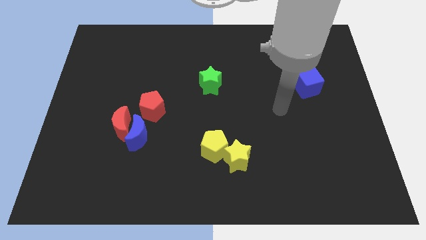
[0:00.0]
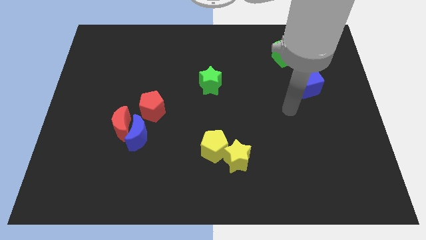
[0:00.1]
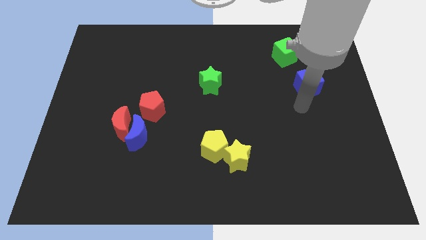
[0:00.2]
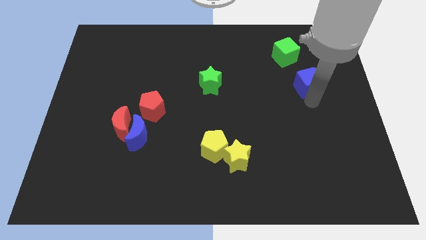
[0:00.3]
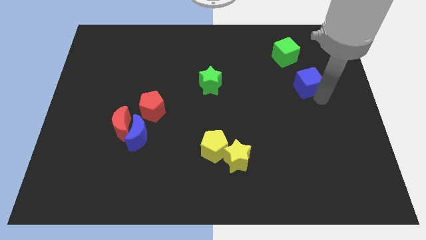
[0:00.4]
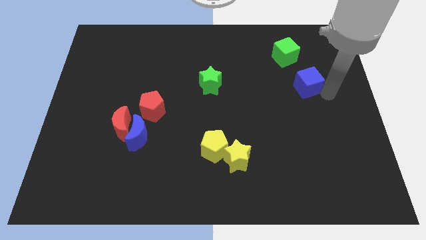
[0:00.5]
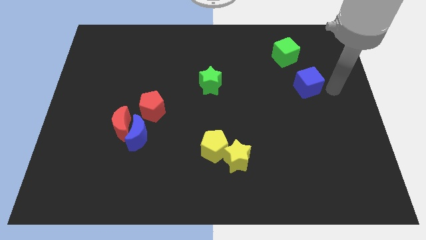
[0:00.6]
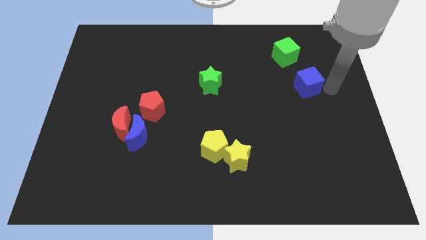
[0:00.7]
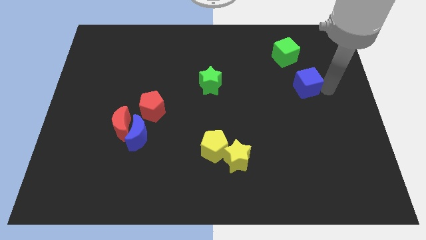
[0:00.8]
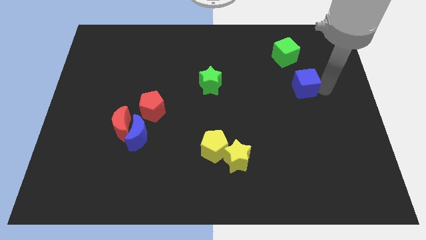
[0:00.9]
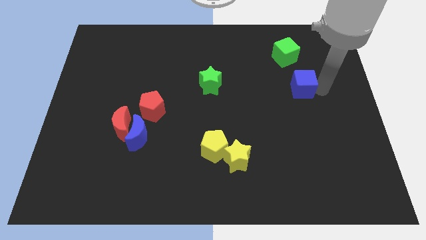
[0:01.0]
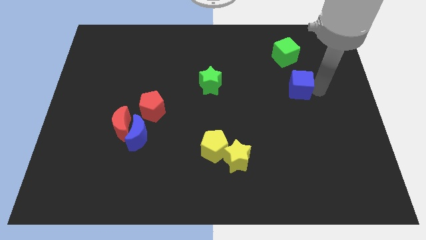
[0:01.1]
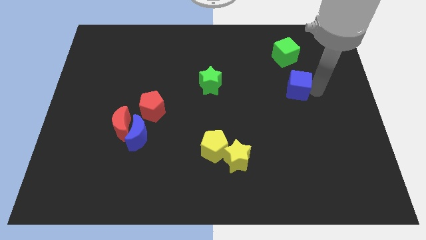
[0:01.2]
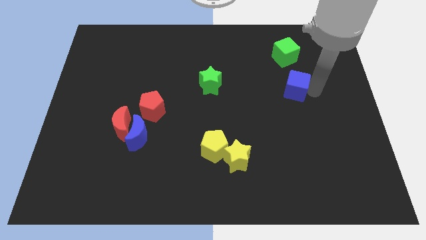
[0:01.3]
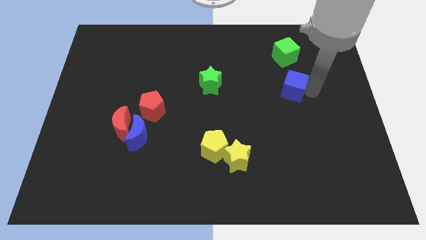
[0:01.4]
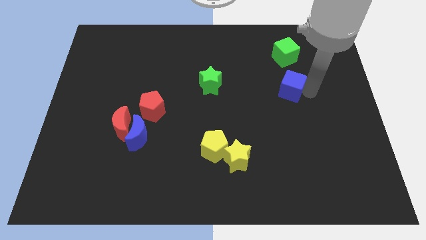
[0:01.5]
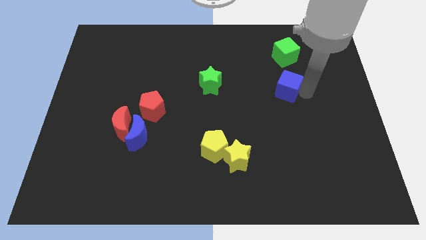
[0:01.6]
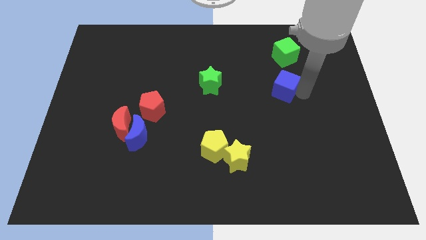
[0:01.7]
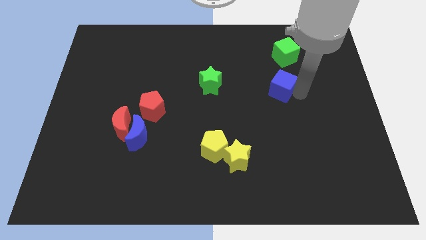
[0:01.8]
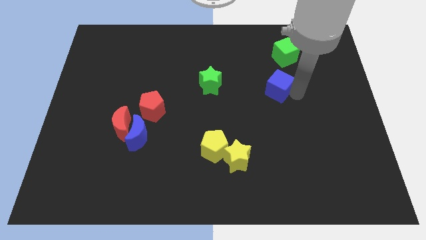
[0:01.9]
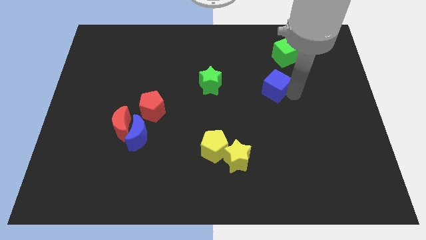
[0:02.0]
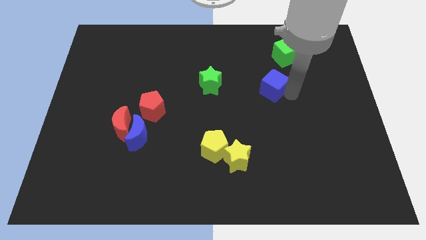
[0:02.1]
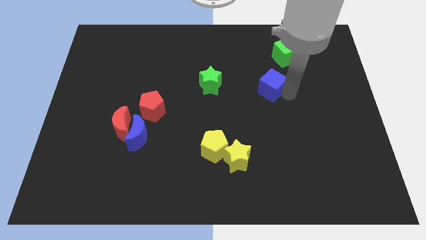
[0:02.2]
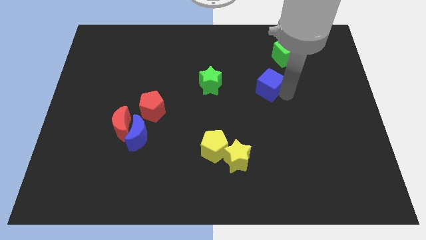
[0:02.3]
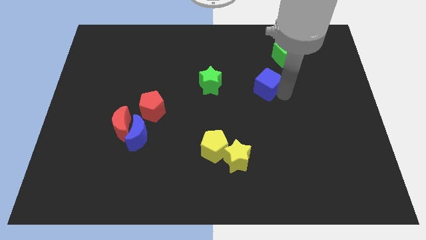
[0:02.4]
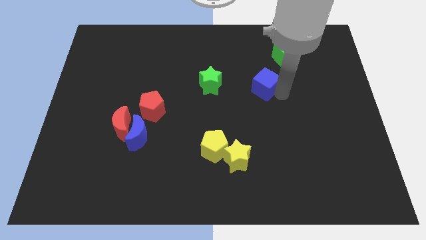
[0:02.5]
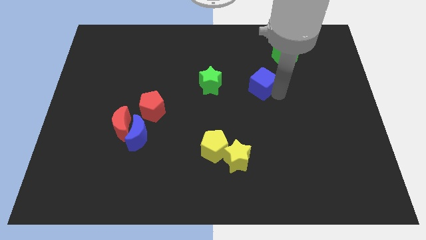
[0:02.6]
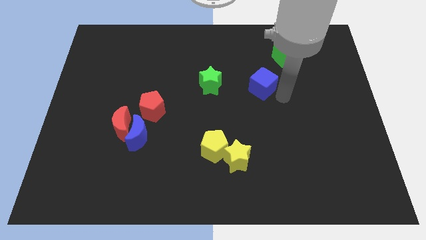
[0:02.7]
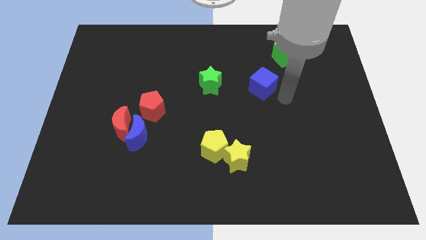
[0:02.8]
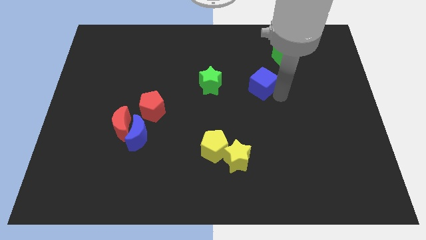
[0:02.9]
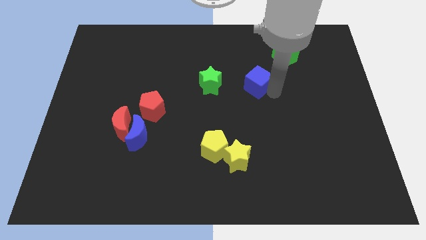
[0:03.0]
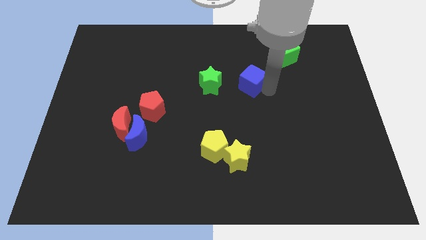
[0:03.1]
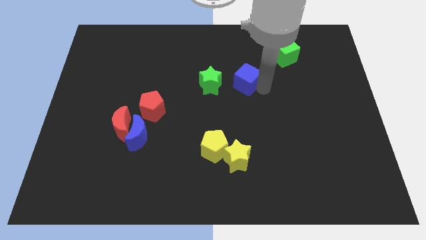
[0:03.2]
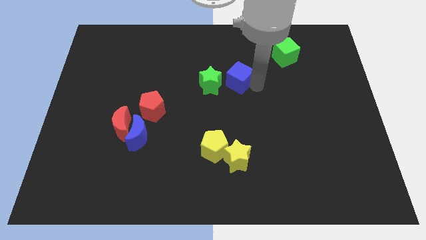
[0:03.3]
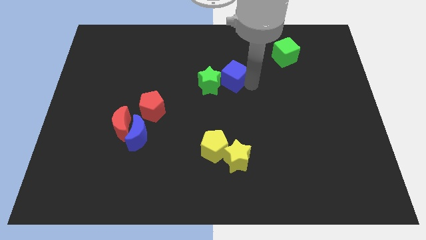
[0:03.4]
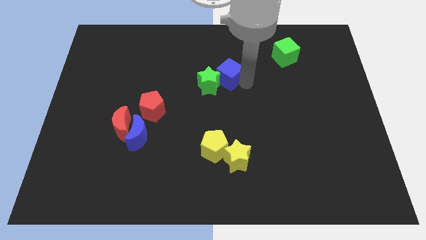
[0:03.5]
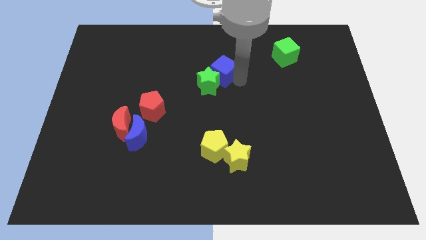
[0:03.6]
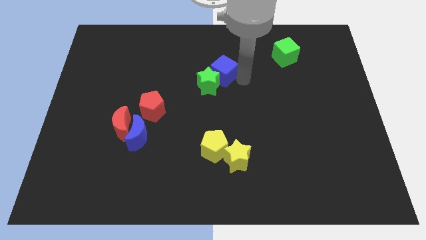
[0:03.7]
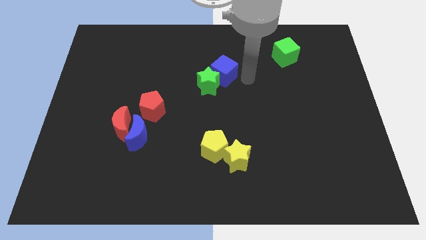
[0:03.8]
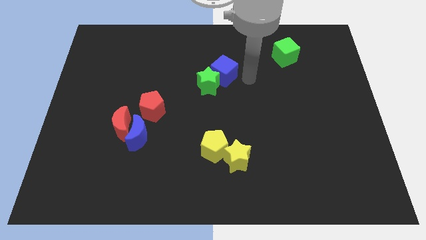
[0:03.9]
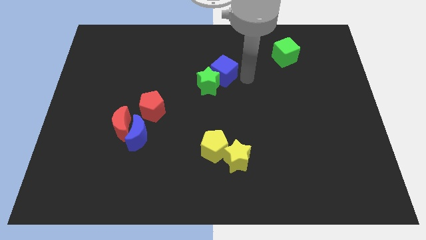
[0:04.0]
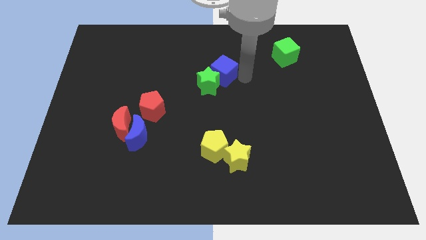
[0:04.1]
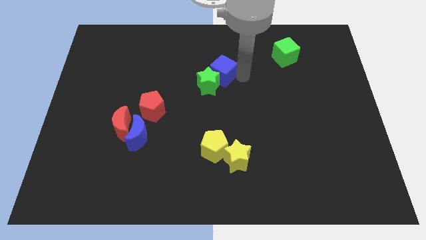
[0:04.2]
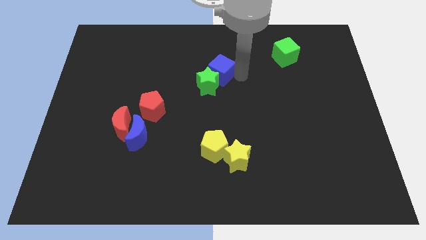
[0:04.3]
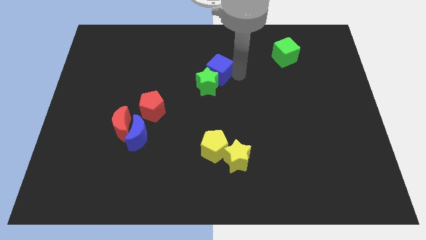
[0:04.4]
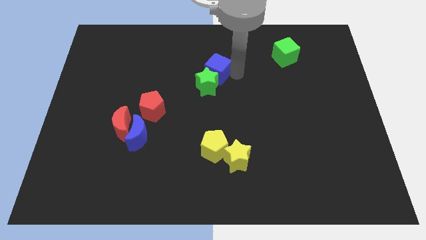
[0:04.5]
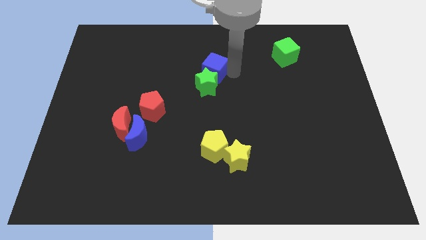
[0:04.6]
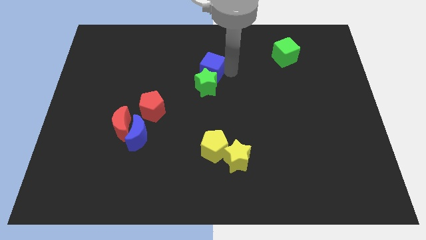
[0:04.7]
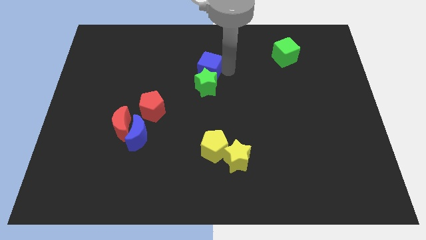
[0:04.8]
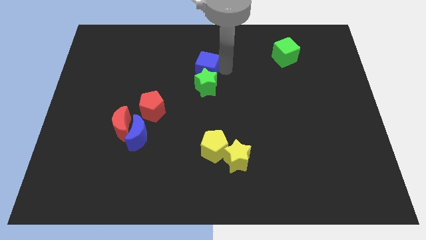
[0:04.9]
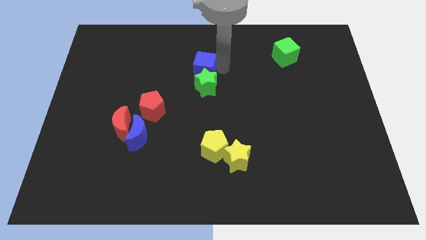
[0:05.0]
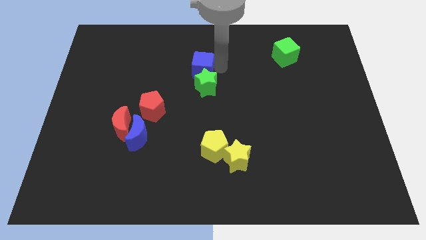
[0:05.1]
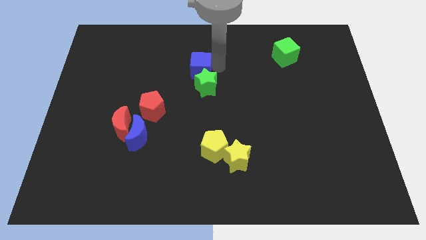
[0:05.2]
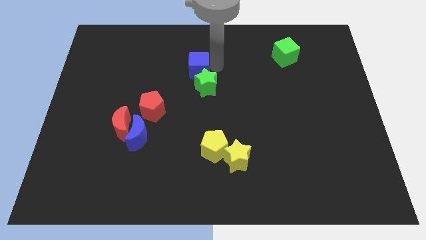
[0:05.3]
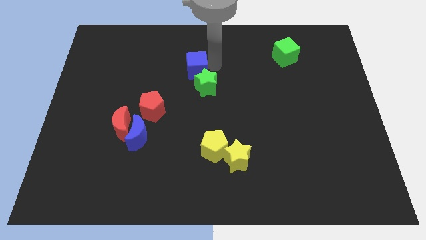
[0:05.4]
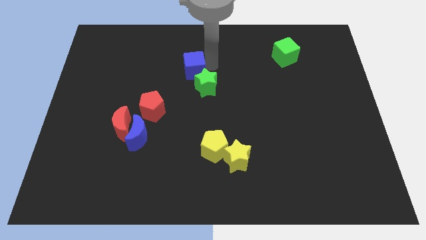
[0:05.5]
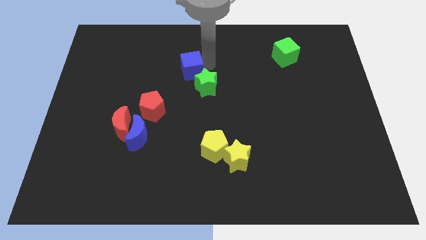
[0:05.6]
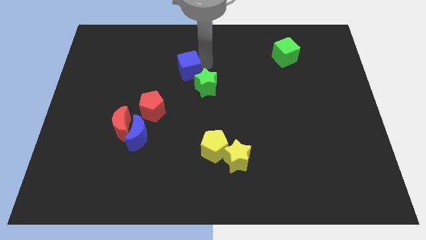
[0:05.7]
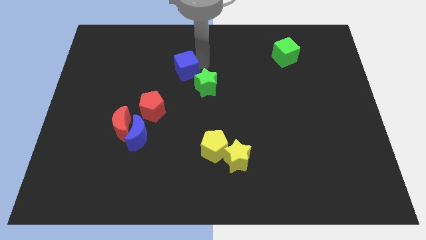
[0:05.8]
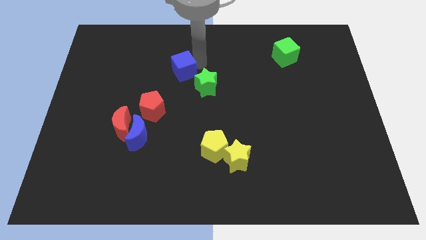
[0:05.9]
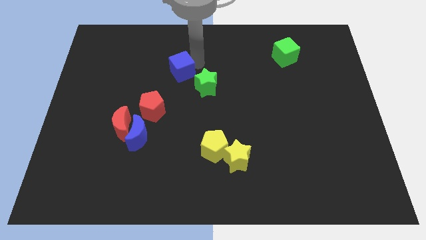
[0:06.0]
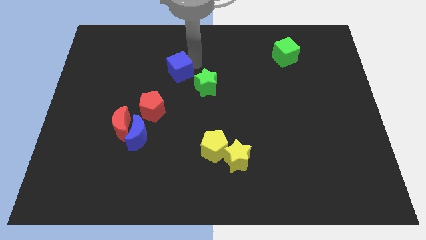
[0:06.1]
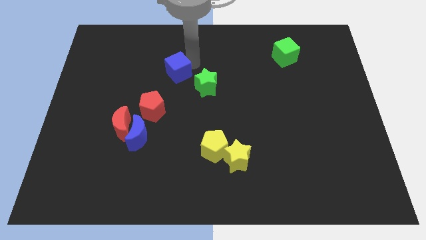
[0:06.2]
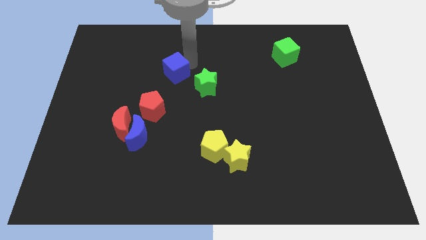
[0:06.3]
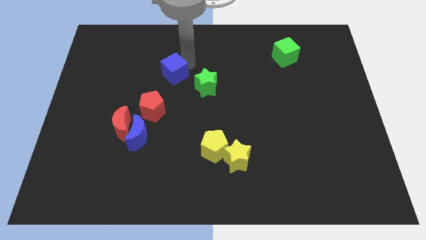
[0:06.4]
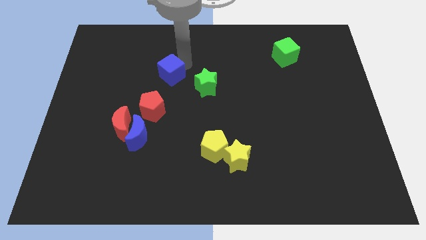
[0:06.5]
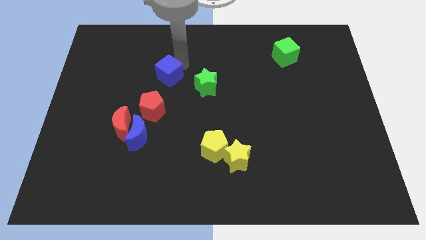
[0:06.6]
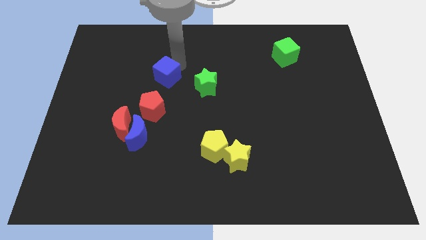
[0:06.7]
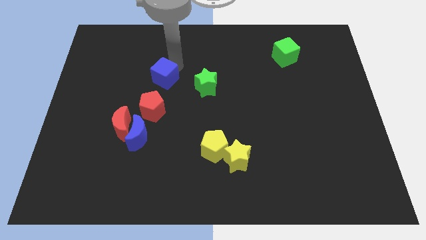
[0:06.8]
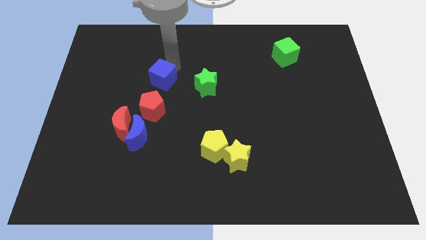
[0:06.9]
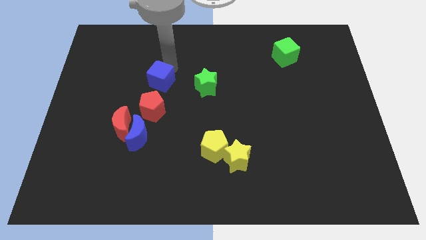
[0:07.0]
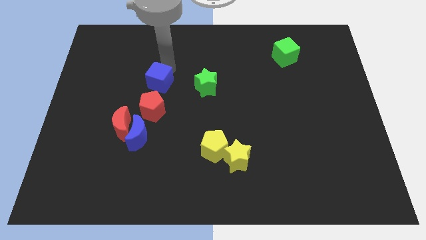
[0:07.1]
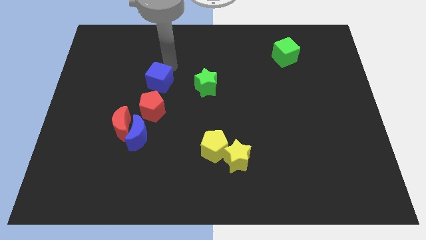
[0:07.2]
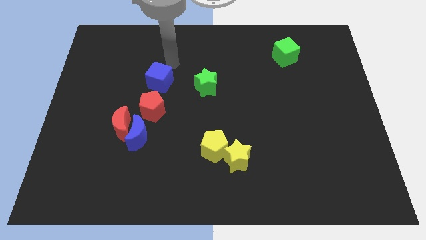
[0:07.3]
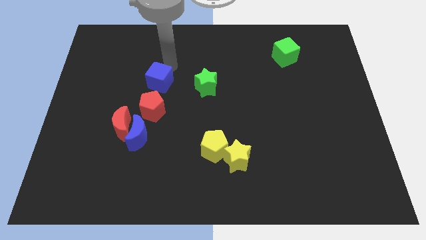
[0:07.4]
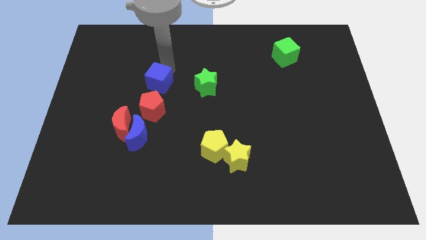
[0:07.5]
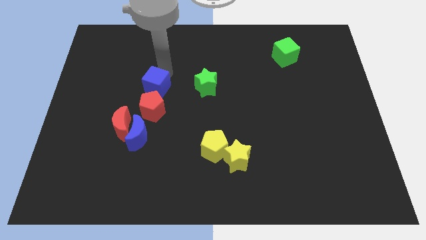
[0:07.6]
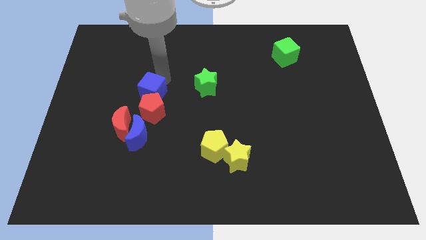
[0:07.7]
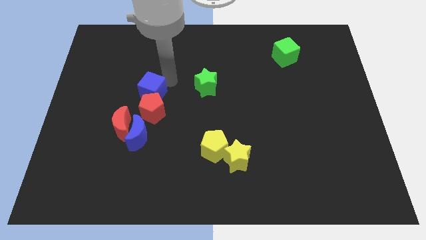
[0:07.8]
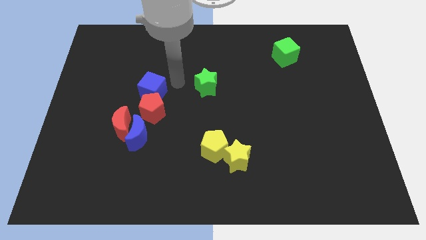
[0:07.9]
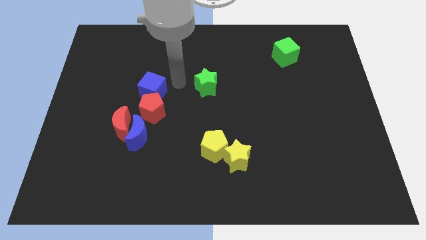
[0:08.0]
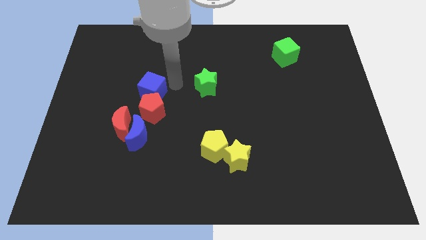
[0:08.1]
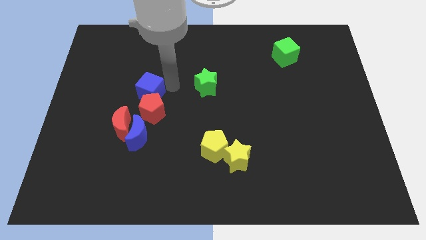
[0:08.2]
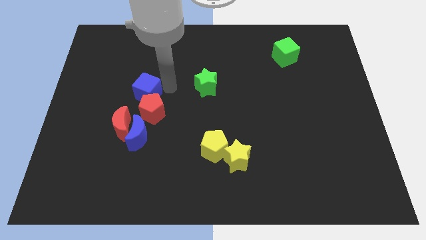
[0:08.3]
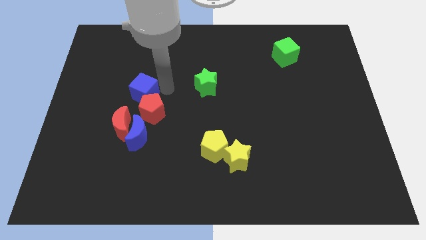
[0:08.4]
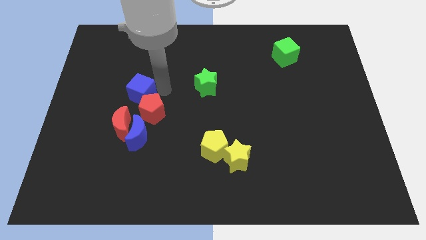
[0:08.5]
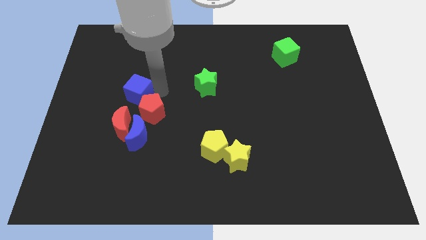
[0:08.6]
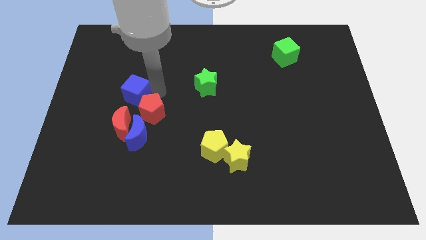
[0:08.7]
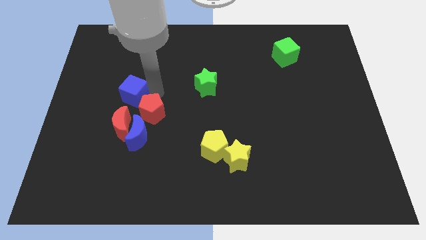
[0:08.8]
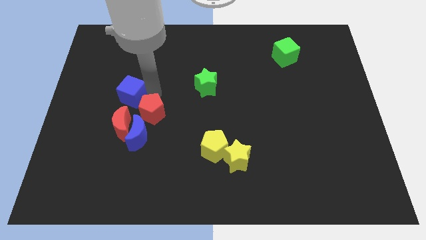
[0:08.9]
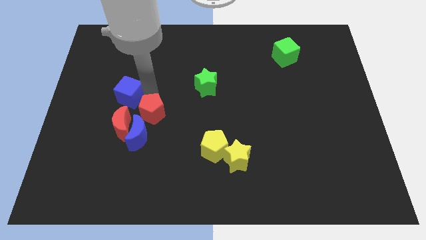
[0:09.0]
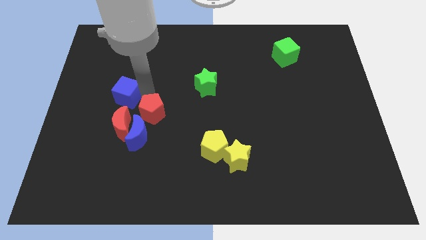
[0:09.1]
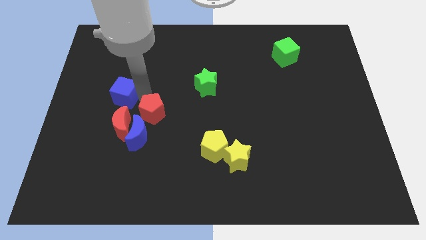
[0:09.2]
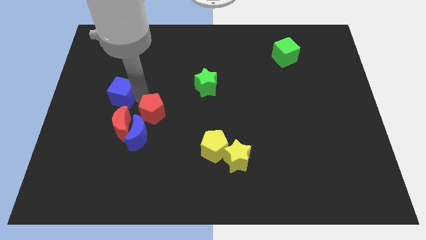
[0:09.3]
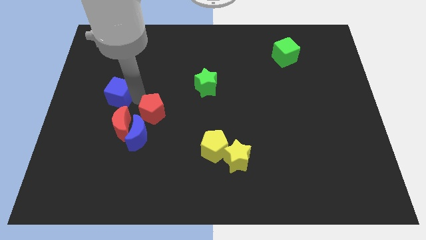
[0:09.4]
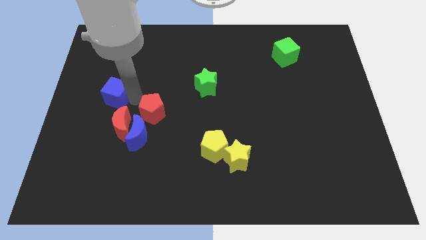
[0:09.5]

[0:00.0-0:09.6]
put the blue cube to the top left of the red moon
